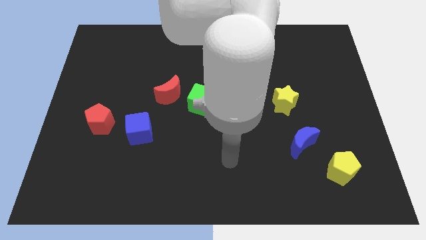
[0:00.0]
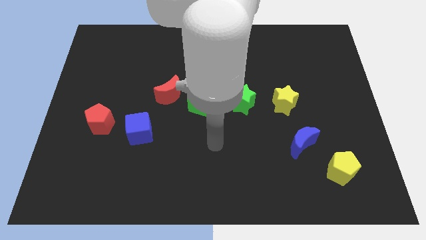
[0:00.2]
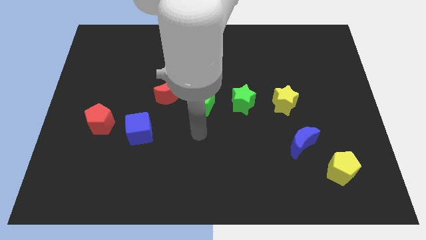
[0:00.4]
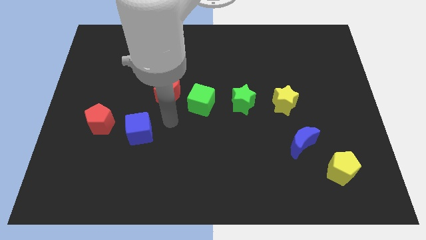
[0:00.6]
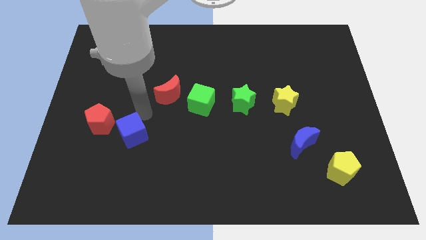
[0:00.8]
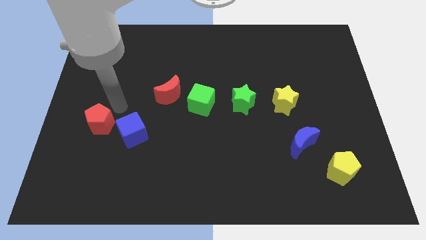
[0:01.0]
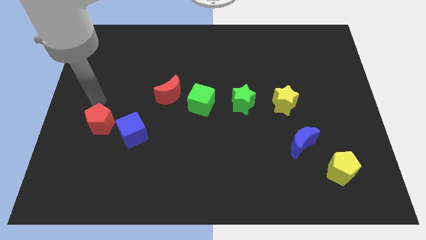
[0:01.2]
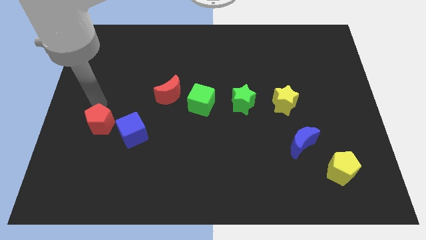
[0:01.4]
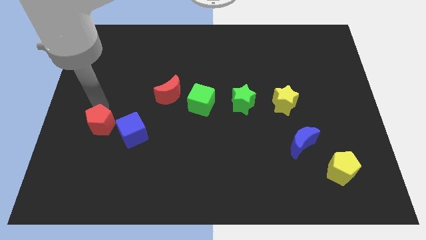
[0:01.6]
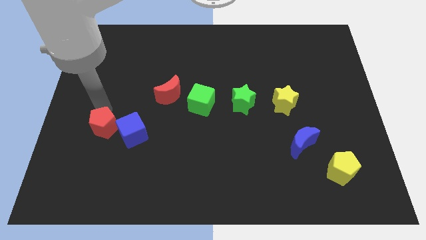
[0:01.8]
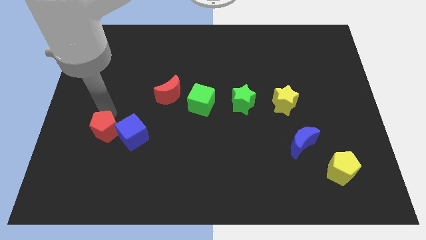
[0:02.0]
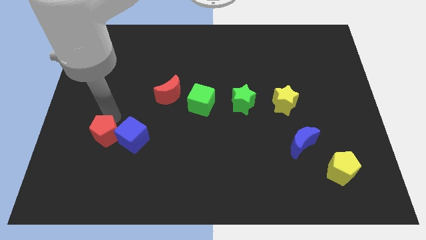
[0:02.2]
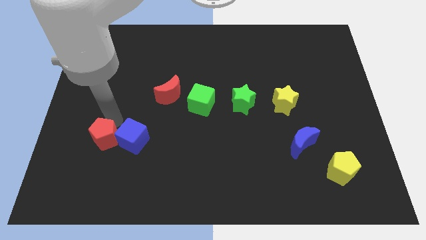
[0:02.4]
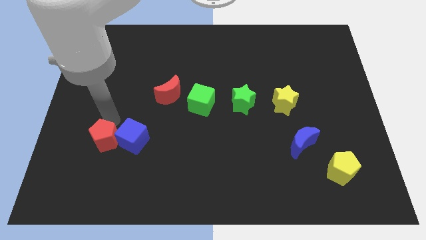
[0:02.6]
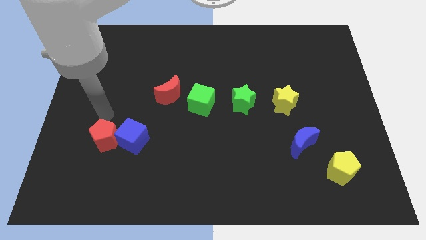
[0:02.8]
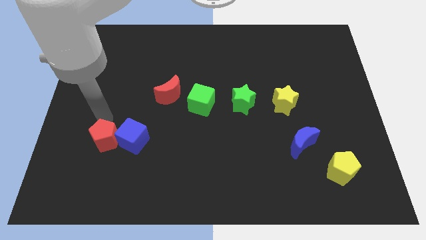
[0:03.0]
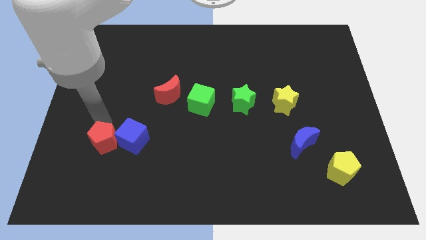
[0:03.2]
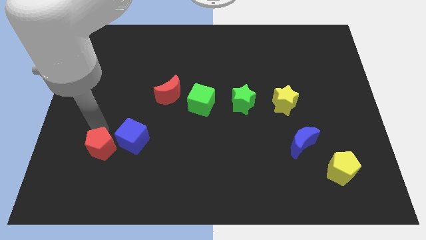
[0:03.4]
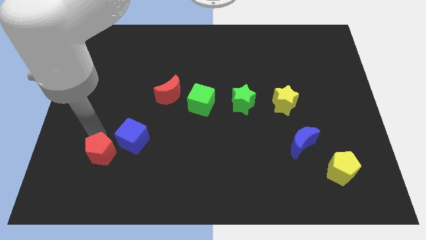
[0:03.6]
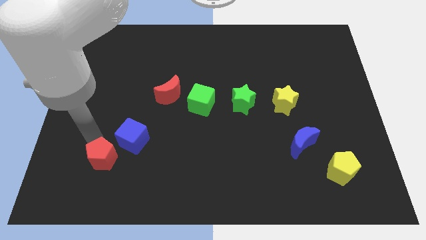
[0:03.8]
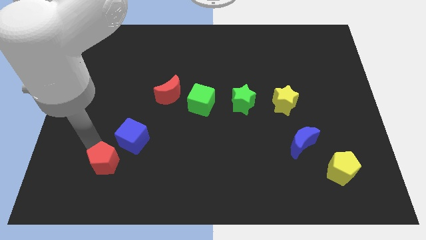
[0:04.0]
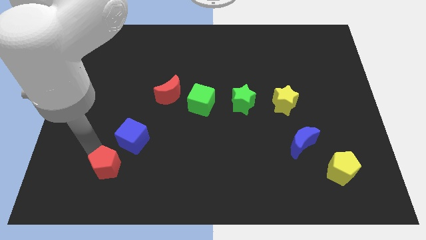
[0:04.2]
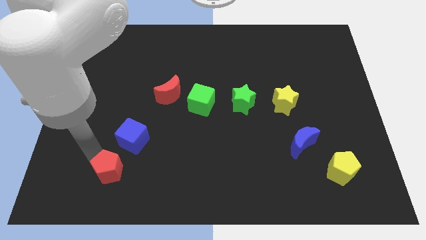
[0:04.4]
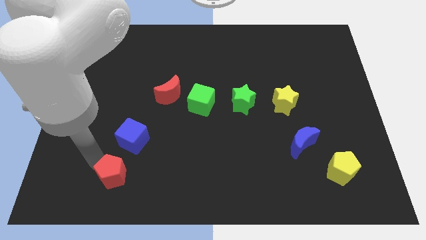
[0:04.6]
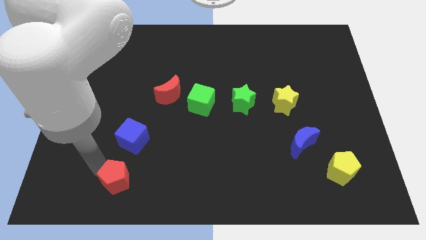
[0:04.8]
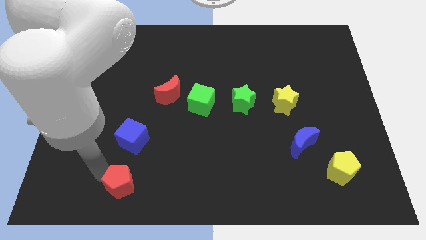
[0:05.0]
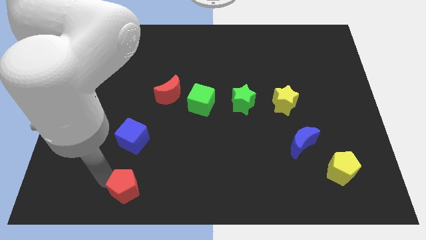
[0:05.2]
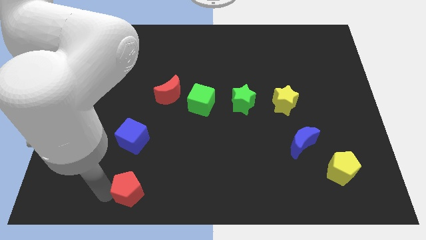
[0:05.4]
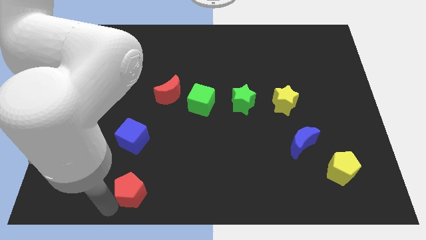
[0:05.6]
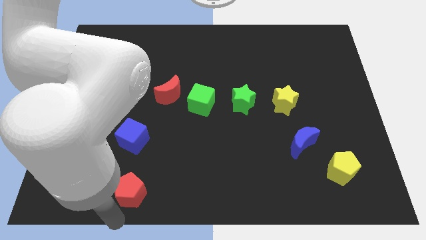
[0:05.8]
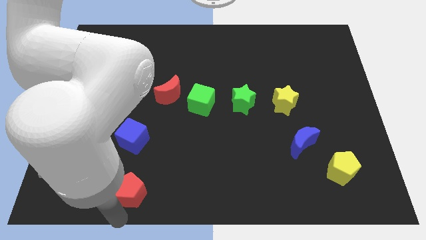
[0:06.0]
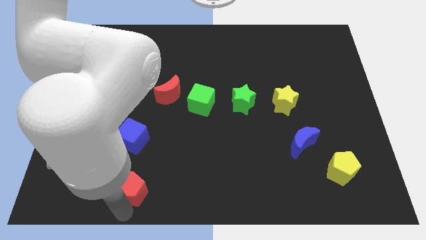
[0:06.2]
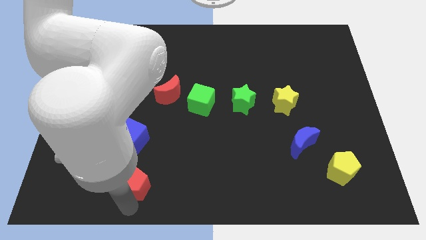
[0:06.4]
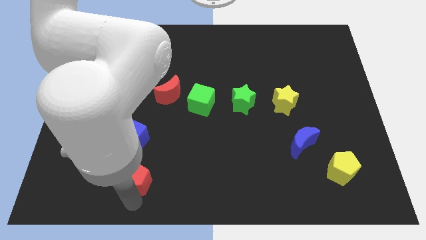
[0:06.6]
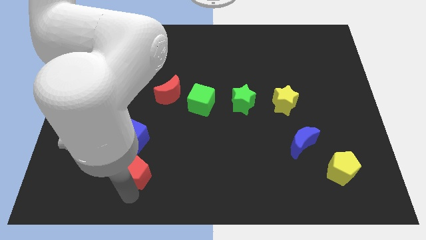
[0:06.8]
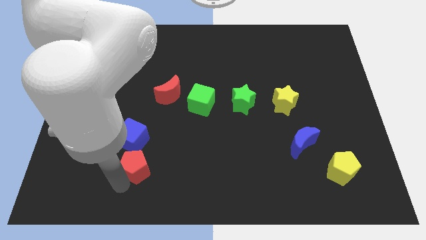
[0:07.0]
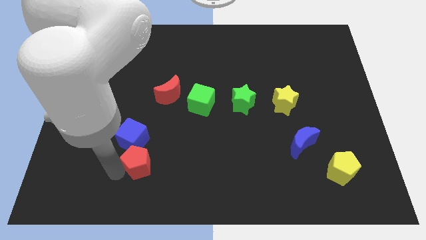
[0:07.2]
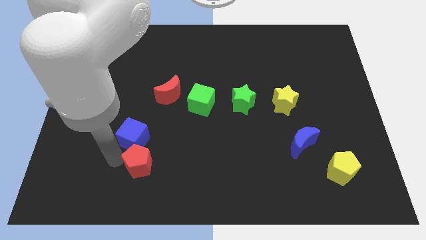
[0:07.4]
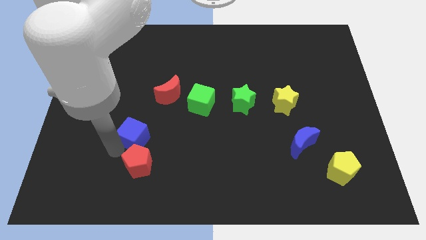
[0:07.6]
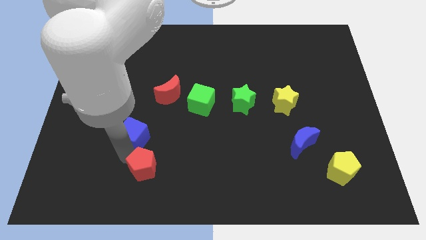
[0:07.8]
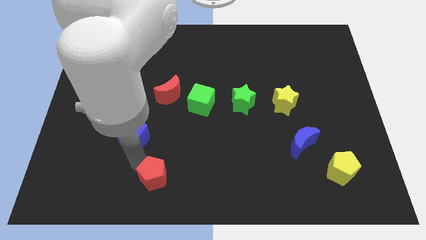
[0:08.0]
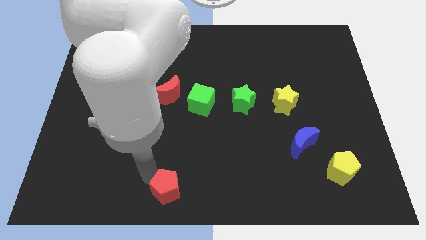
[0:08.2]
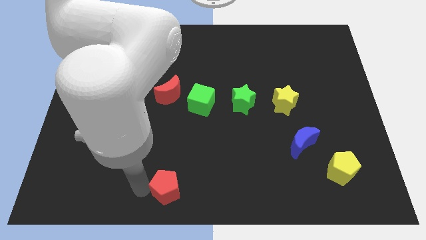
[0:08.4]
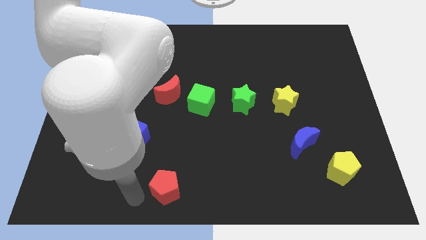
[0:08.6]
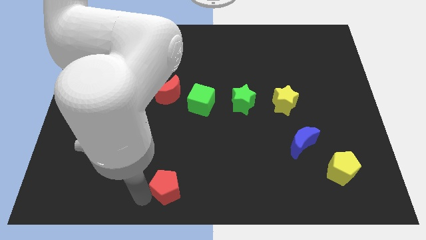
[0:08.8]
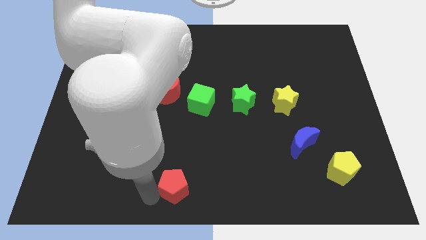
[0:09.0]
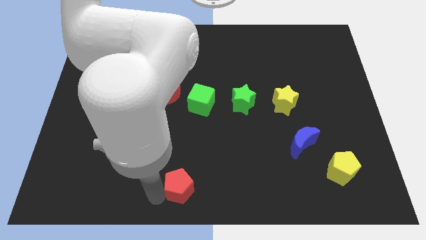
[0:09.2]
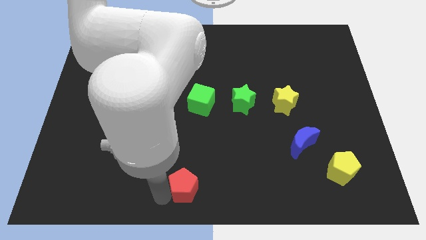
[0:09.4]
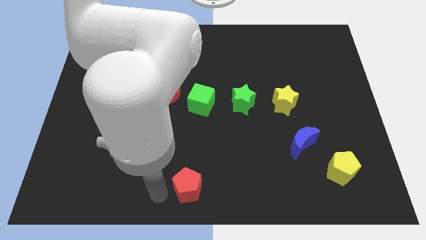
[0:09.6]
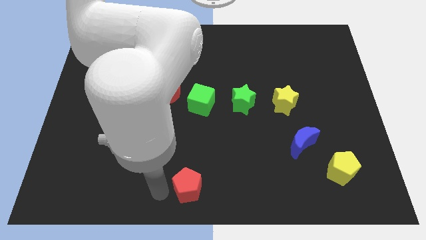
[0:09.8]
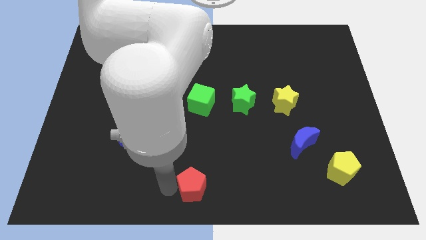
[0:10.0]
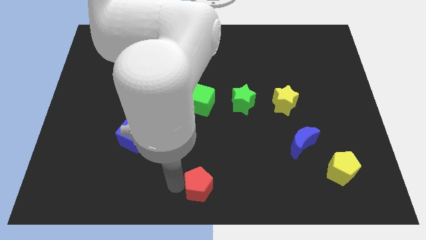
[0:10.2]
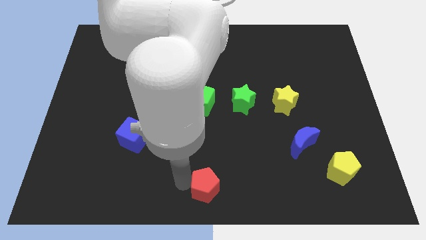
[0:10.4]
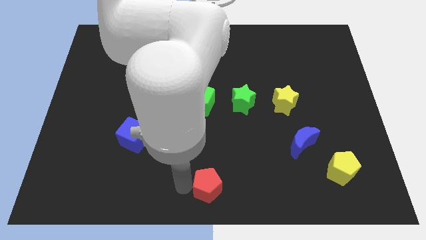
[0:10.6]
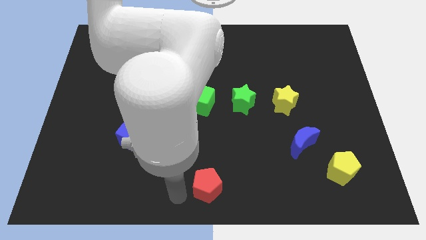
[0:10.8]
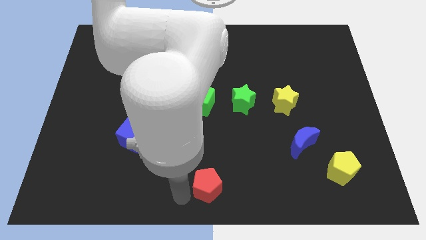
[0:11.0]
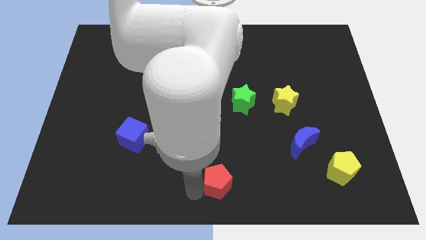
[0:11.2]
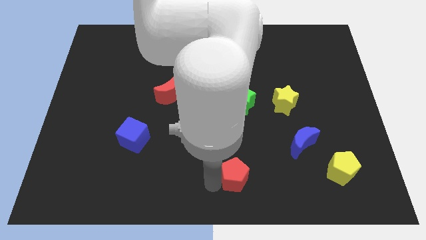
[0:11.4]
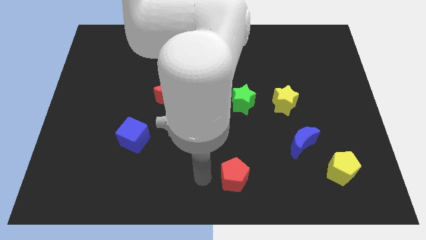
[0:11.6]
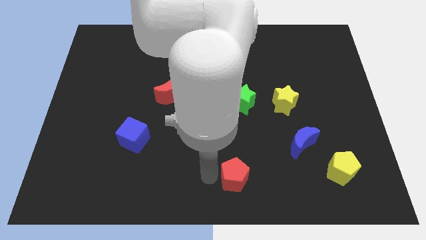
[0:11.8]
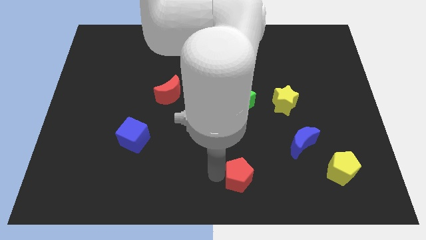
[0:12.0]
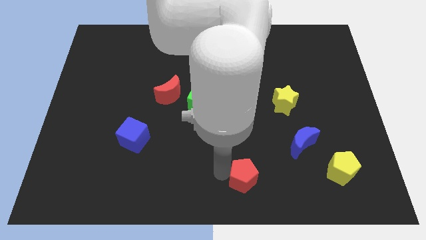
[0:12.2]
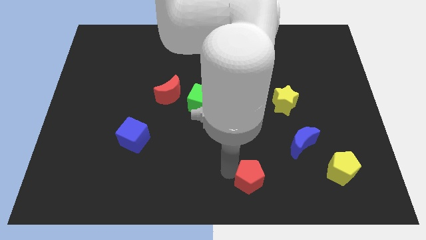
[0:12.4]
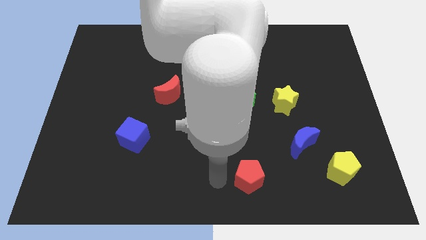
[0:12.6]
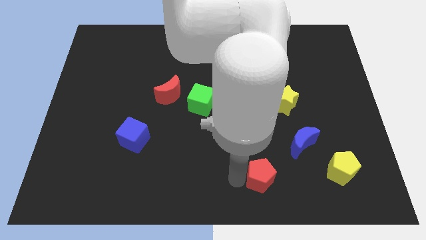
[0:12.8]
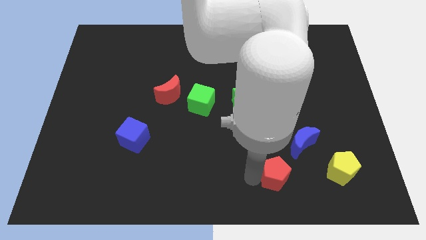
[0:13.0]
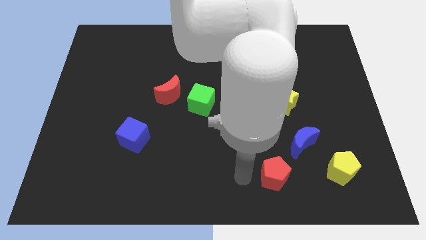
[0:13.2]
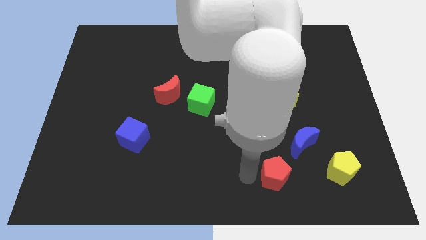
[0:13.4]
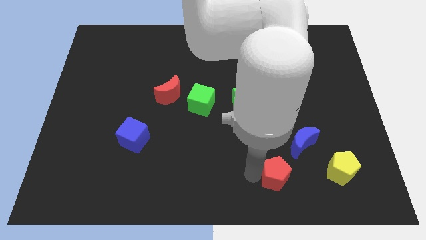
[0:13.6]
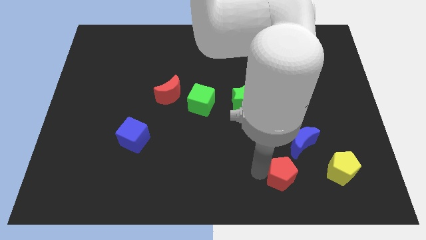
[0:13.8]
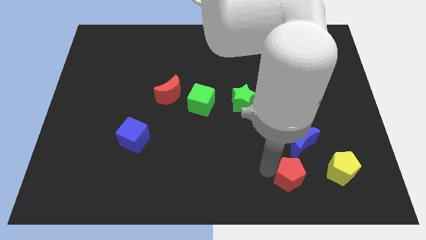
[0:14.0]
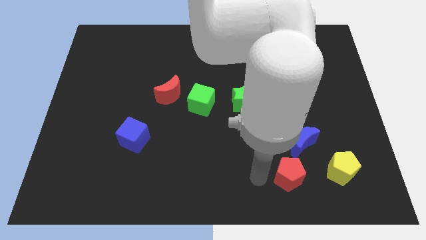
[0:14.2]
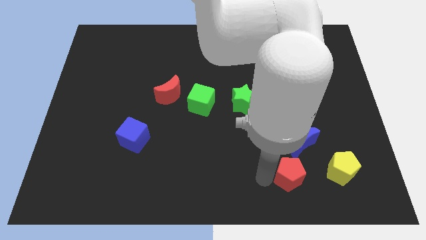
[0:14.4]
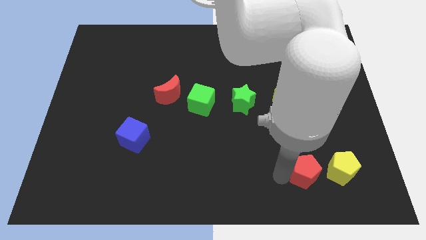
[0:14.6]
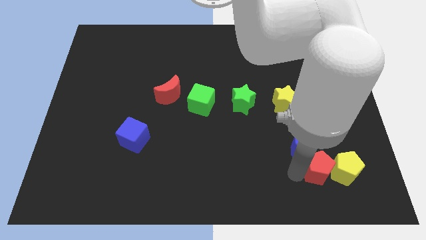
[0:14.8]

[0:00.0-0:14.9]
put the red pentagon next to the yellow pentagon
